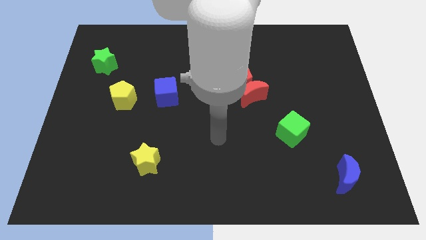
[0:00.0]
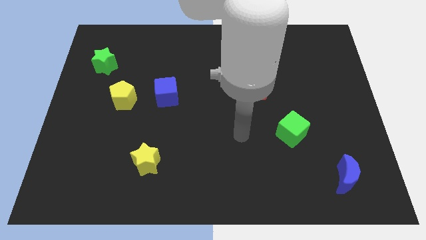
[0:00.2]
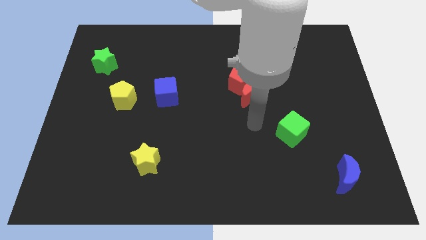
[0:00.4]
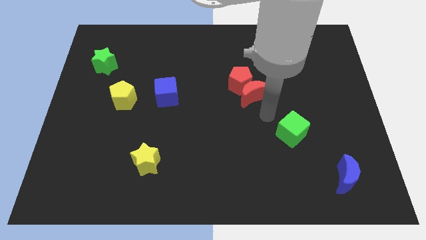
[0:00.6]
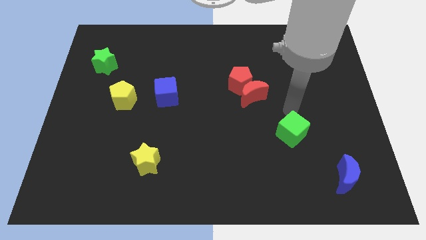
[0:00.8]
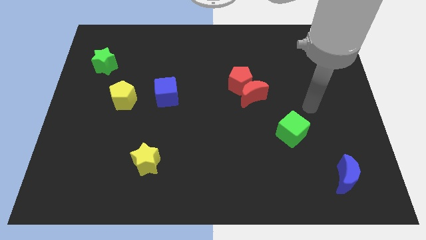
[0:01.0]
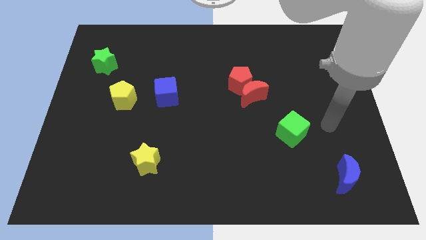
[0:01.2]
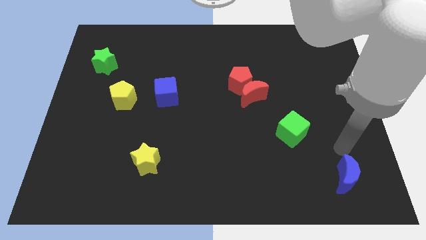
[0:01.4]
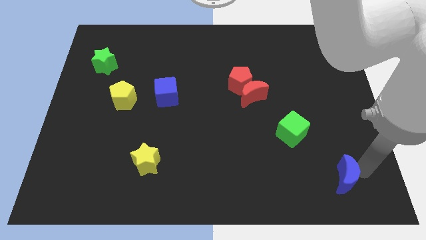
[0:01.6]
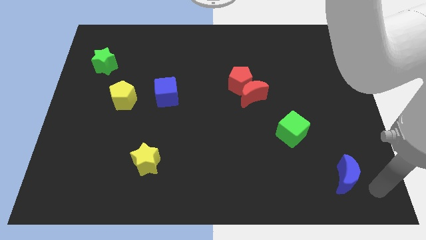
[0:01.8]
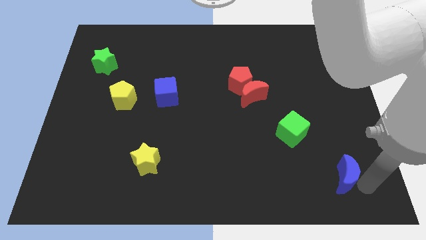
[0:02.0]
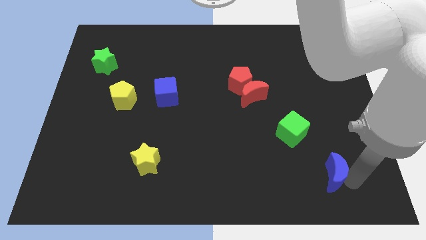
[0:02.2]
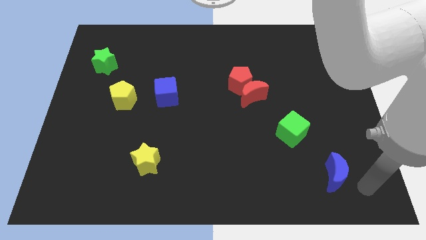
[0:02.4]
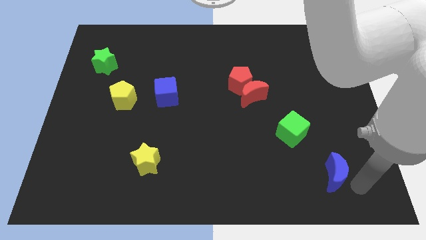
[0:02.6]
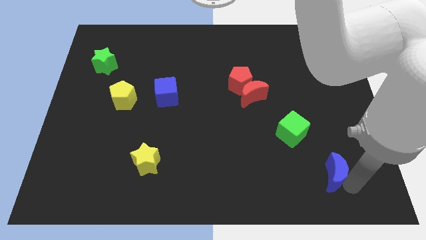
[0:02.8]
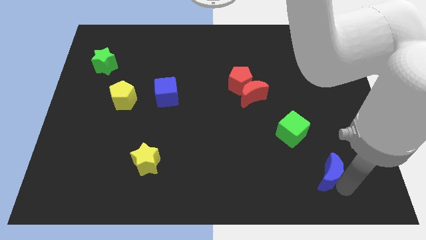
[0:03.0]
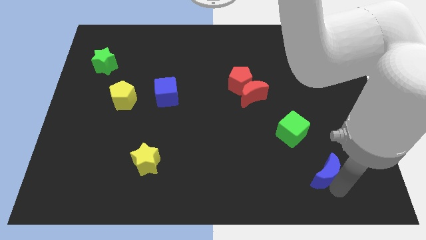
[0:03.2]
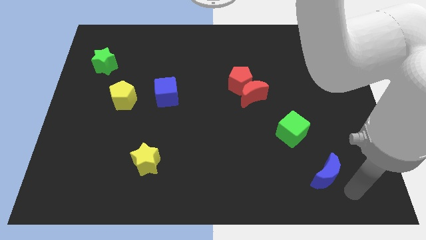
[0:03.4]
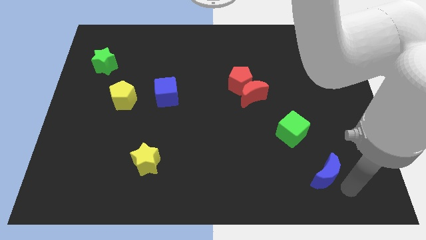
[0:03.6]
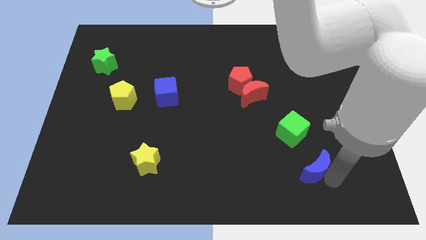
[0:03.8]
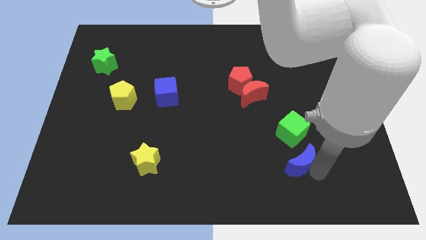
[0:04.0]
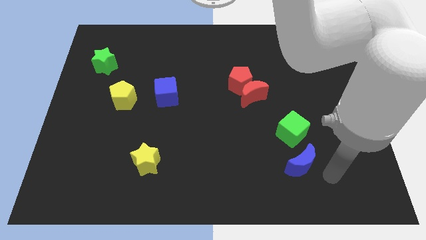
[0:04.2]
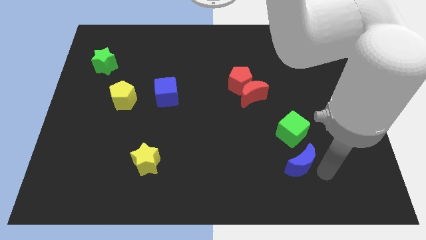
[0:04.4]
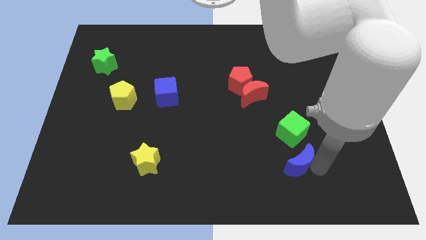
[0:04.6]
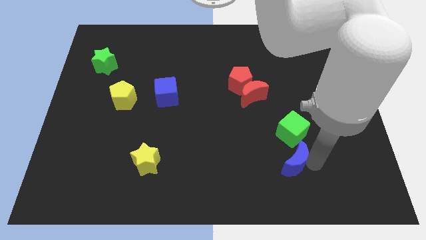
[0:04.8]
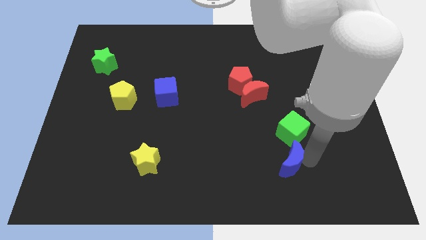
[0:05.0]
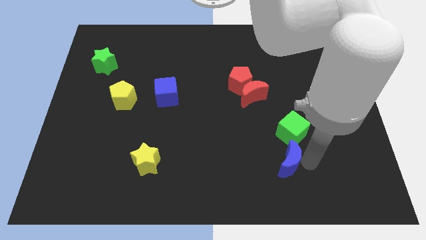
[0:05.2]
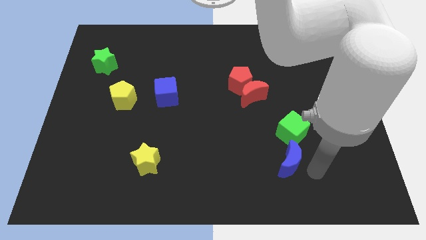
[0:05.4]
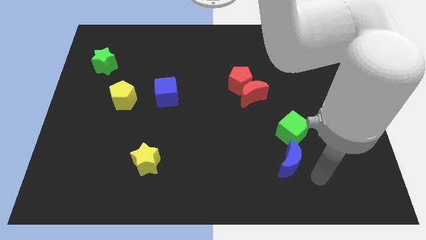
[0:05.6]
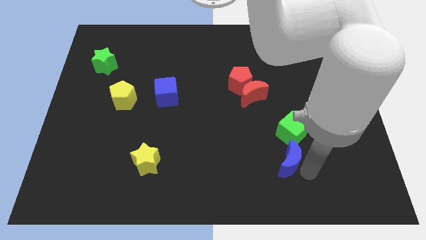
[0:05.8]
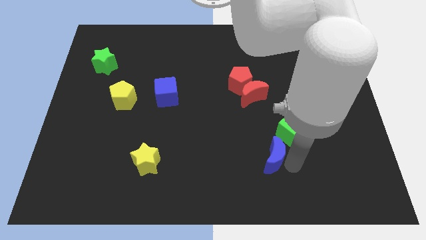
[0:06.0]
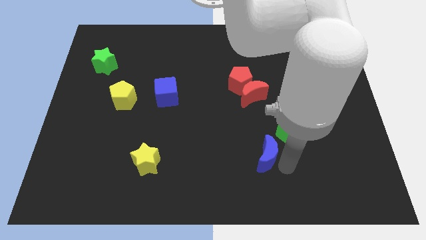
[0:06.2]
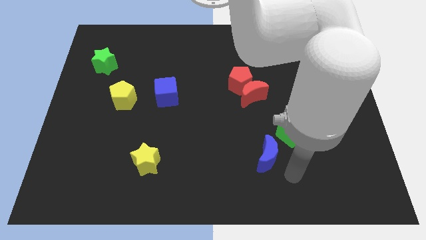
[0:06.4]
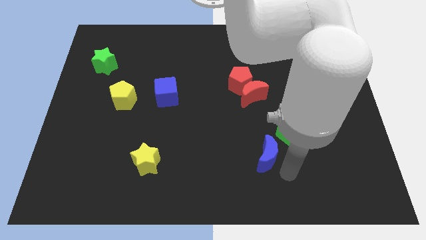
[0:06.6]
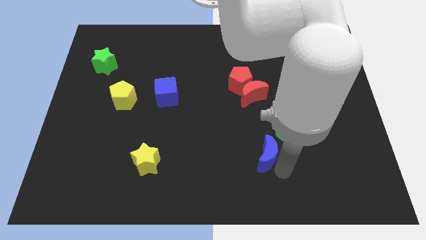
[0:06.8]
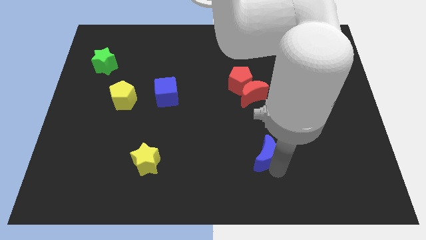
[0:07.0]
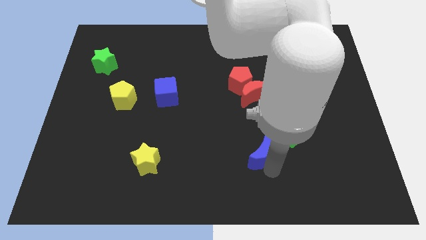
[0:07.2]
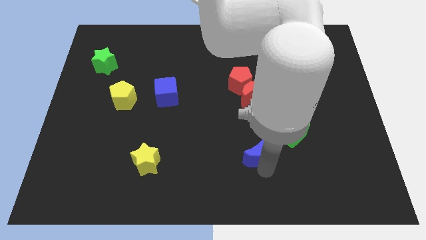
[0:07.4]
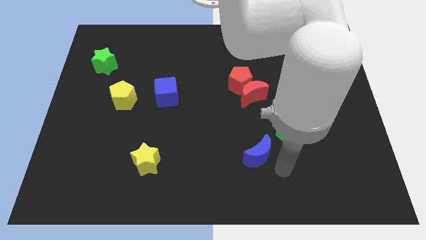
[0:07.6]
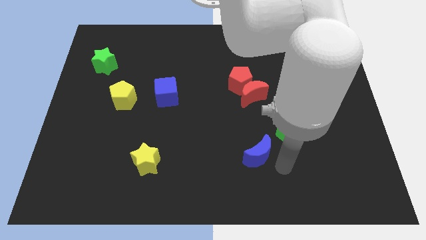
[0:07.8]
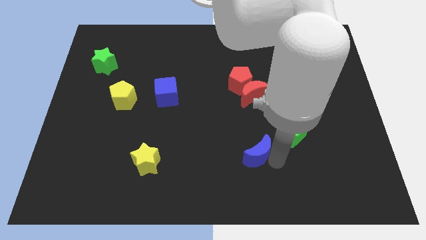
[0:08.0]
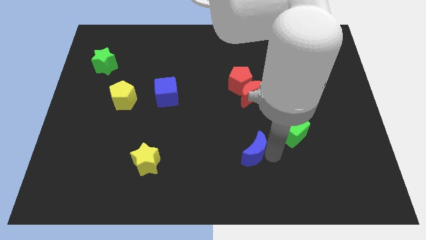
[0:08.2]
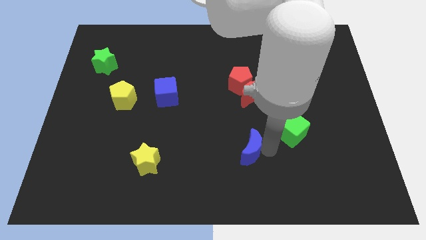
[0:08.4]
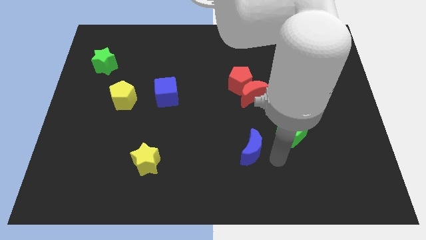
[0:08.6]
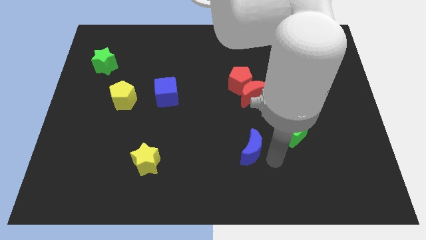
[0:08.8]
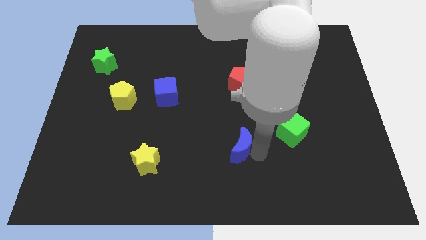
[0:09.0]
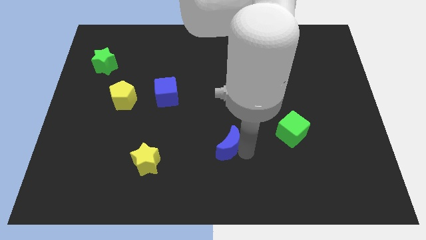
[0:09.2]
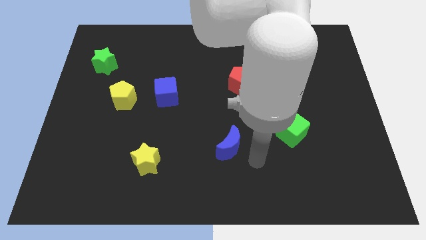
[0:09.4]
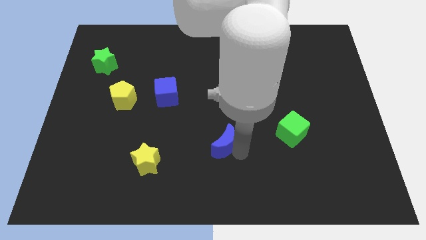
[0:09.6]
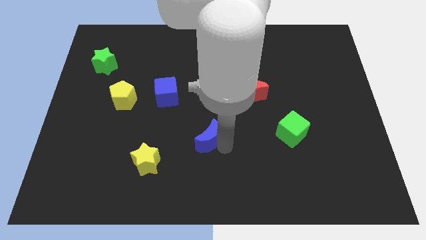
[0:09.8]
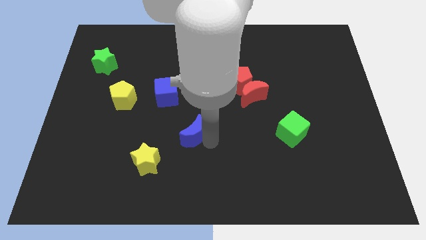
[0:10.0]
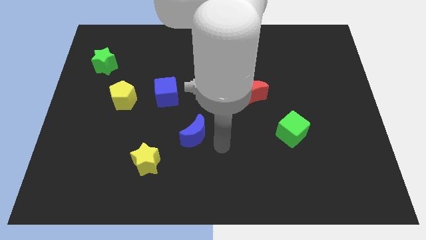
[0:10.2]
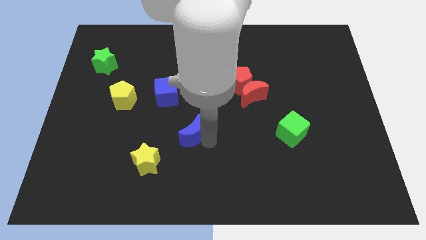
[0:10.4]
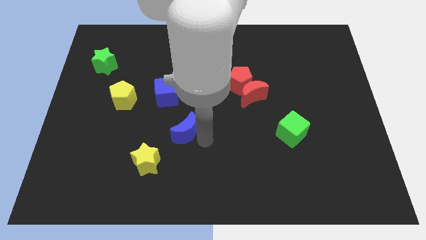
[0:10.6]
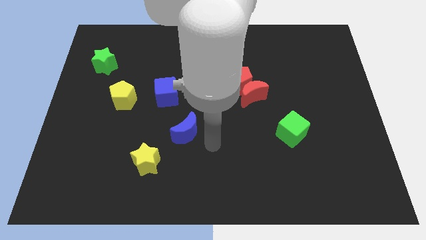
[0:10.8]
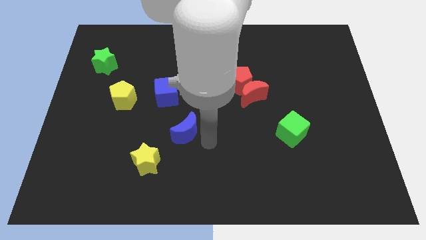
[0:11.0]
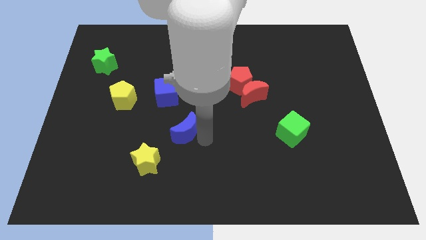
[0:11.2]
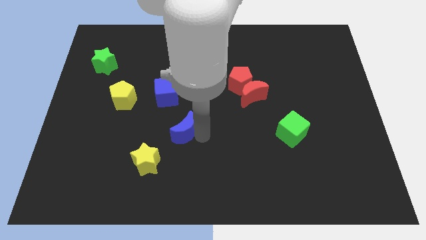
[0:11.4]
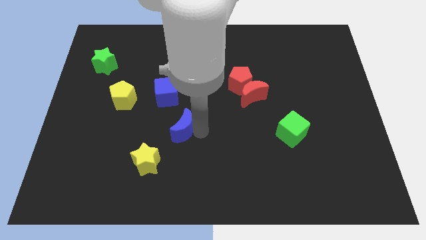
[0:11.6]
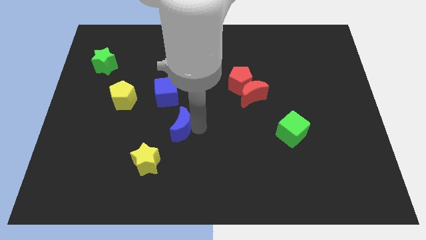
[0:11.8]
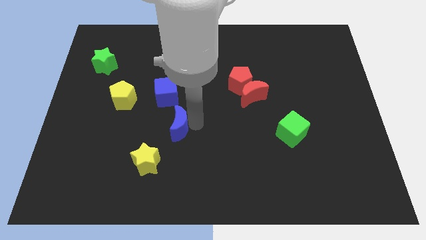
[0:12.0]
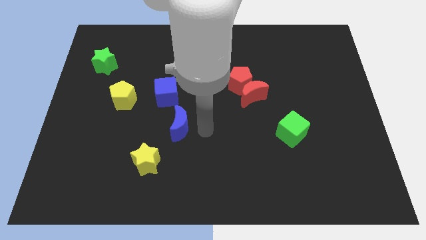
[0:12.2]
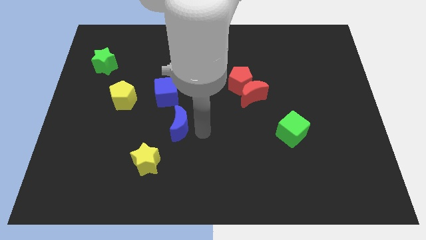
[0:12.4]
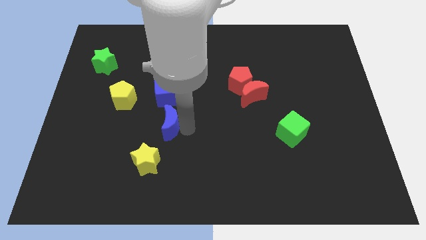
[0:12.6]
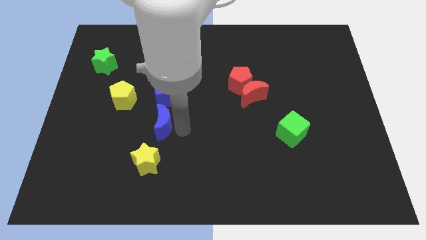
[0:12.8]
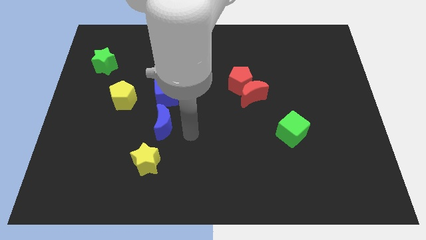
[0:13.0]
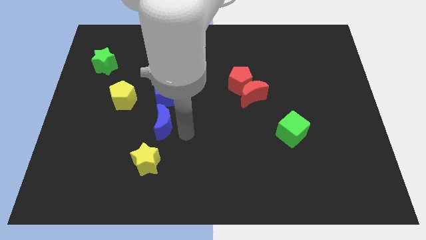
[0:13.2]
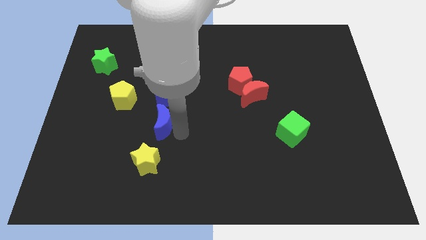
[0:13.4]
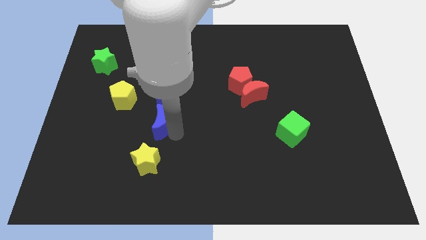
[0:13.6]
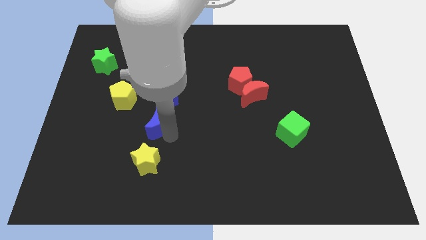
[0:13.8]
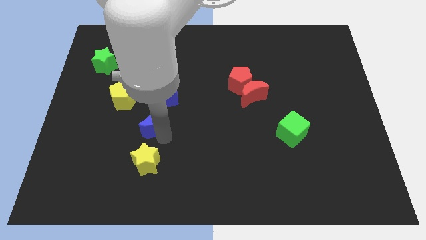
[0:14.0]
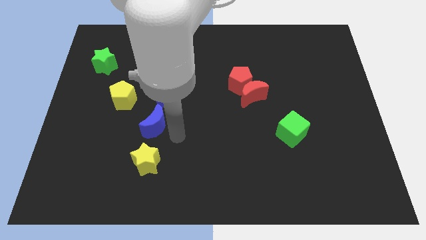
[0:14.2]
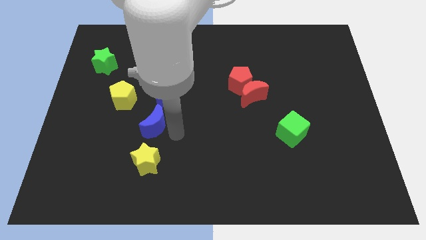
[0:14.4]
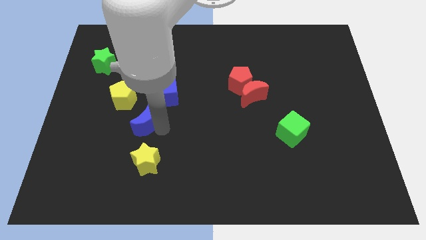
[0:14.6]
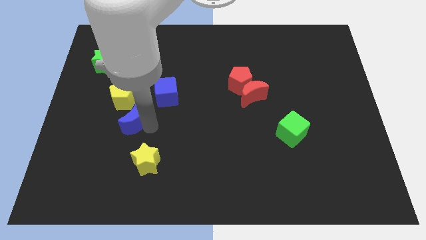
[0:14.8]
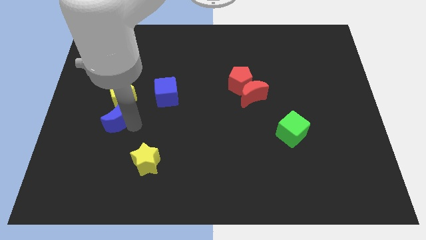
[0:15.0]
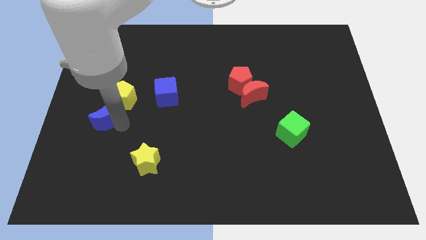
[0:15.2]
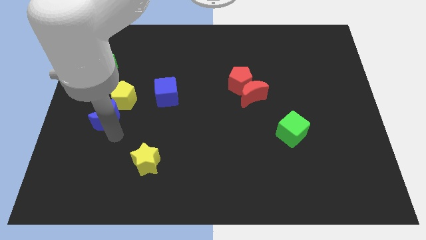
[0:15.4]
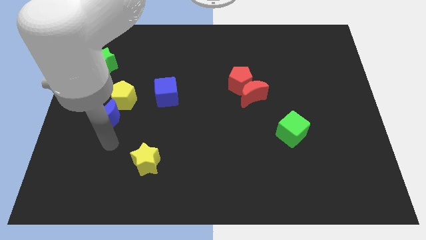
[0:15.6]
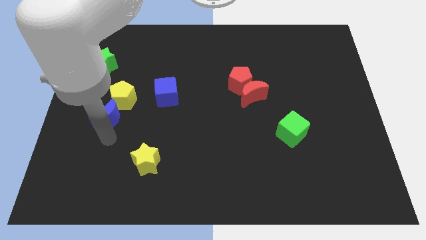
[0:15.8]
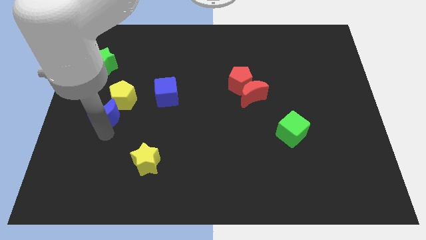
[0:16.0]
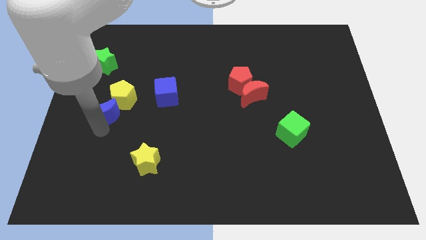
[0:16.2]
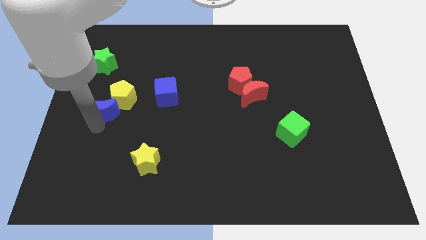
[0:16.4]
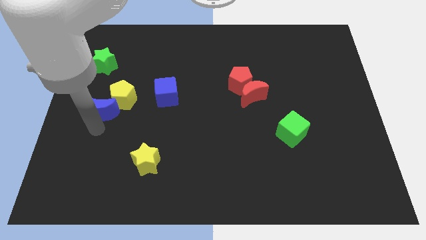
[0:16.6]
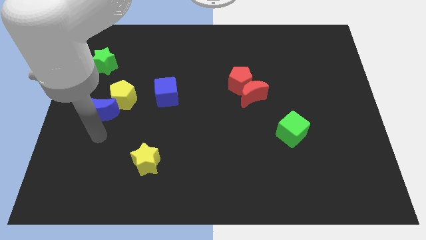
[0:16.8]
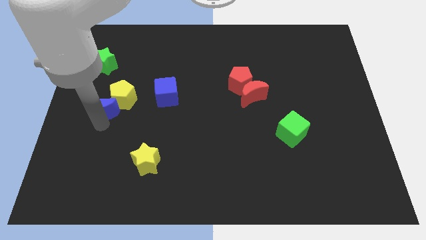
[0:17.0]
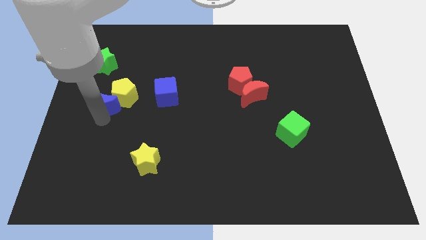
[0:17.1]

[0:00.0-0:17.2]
push the blue moon to the left of the blue cube
